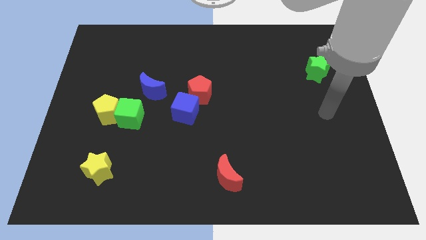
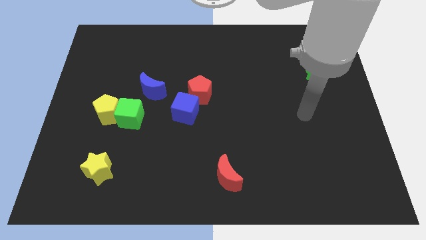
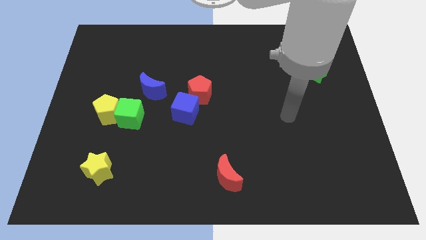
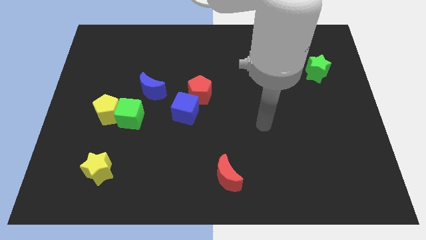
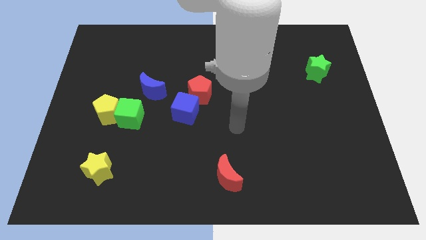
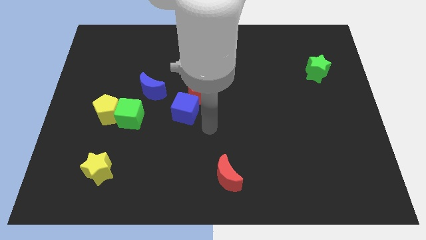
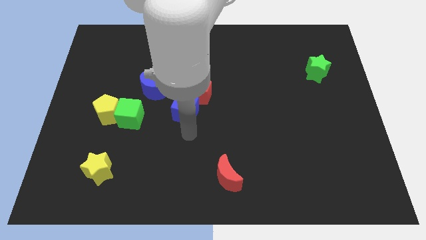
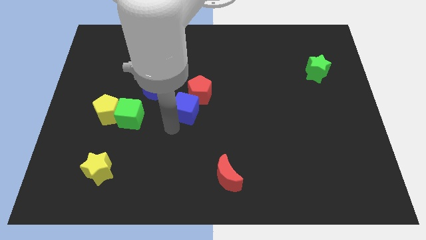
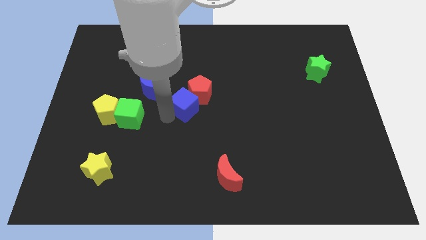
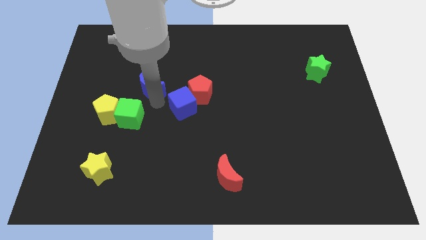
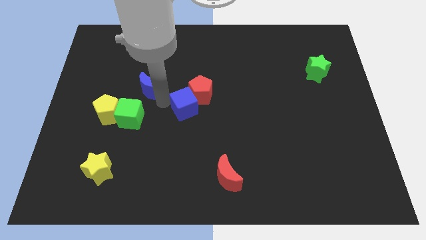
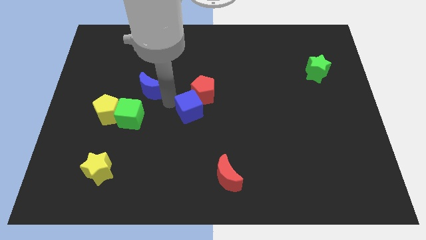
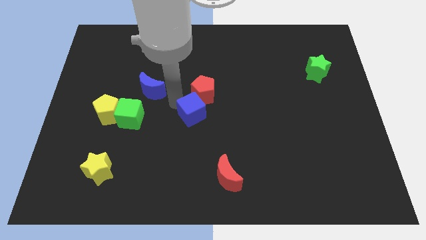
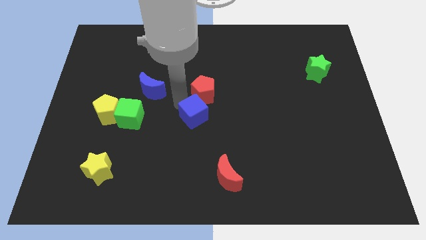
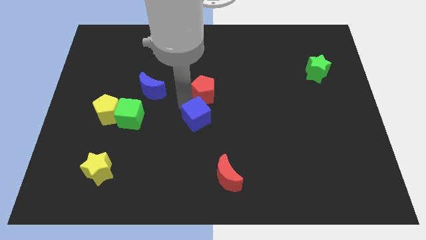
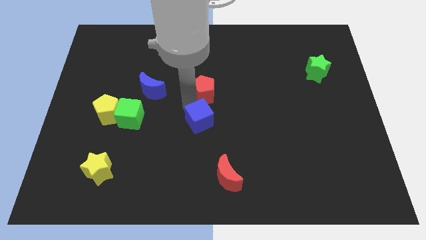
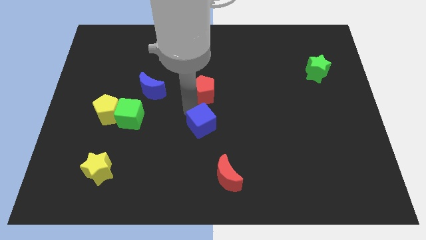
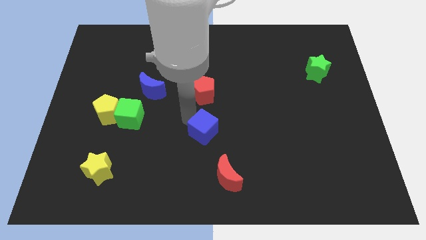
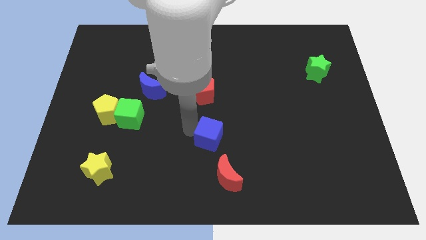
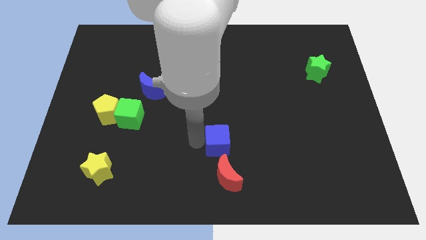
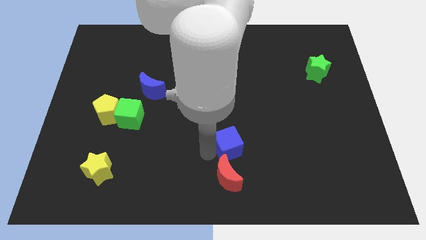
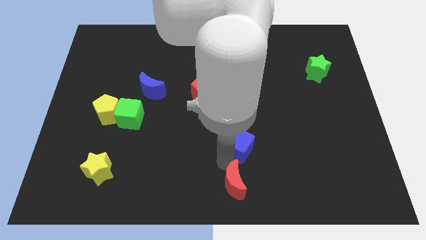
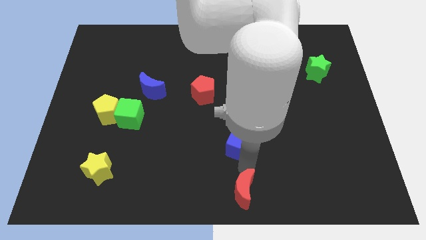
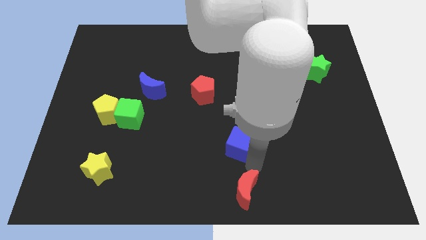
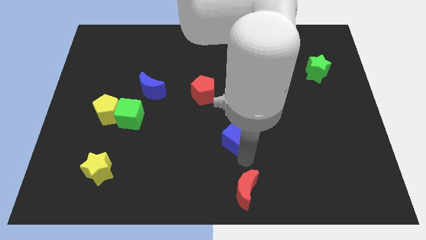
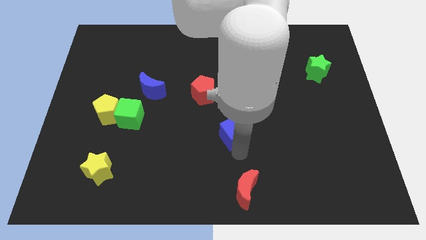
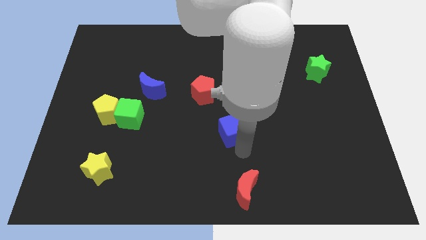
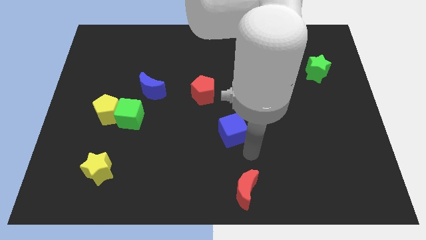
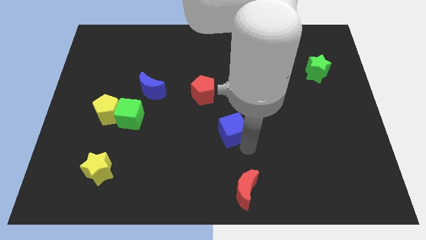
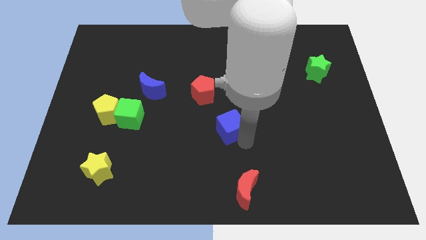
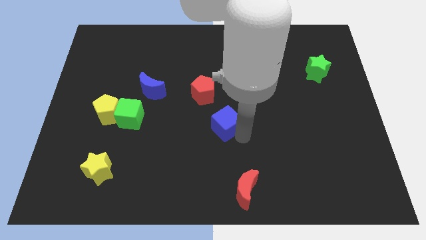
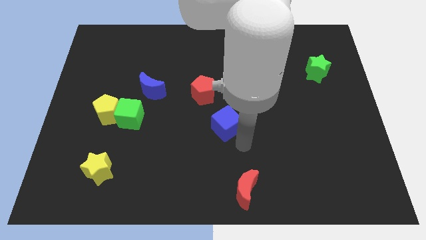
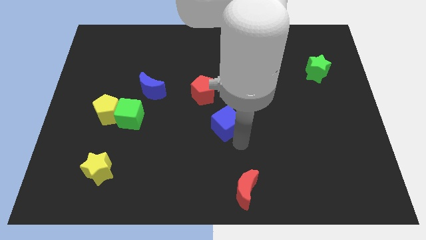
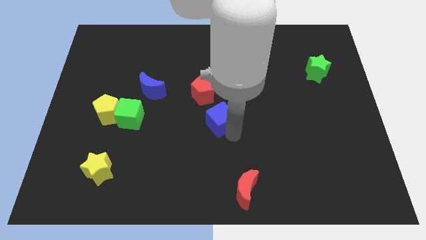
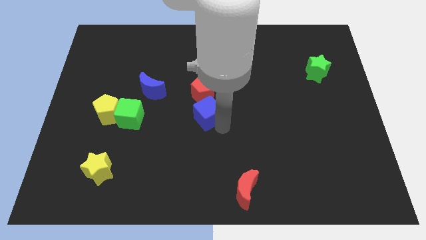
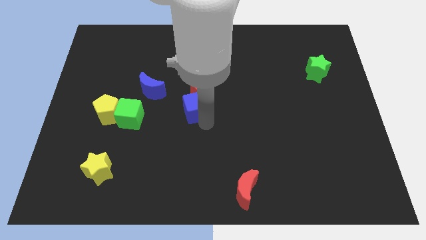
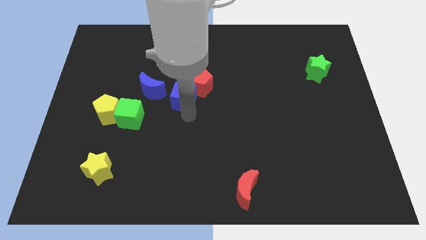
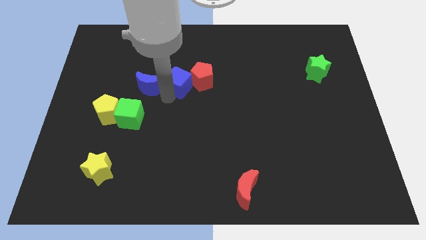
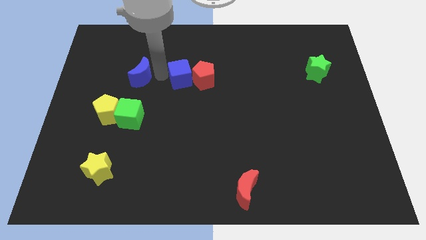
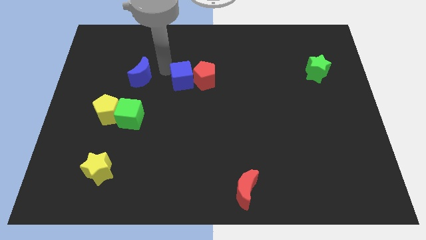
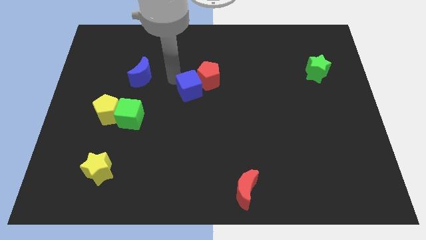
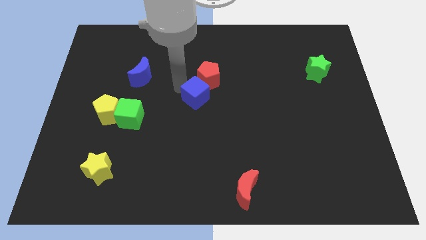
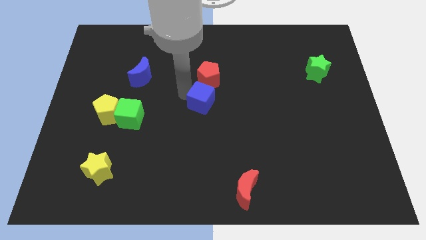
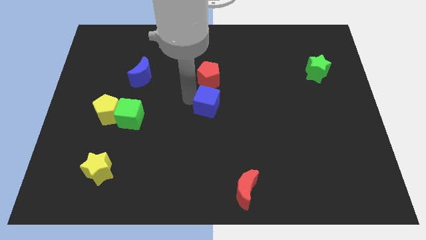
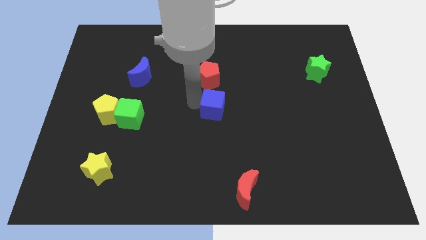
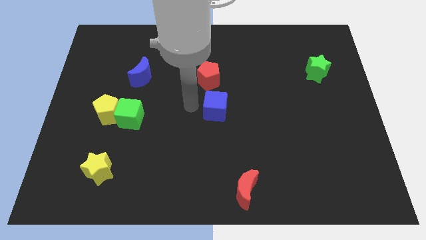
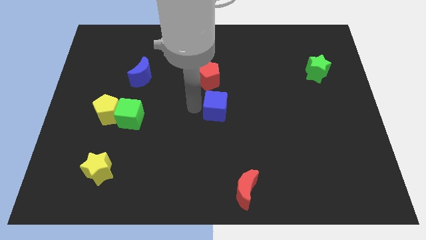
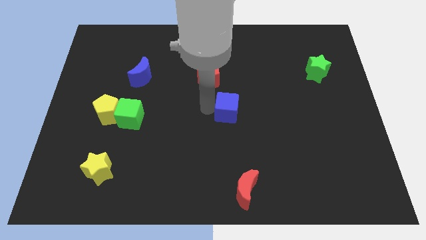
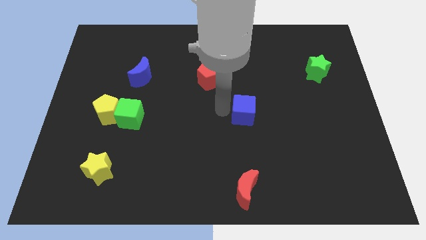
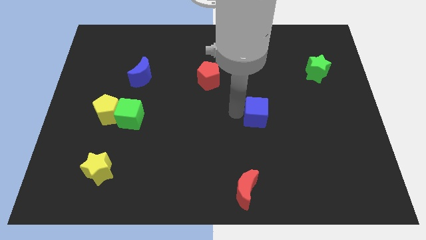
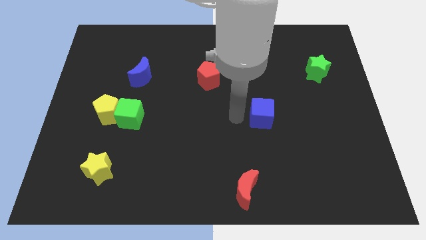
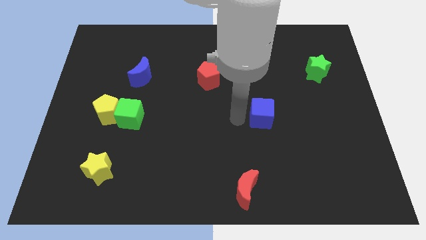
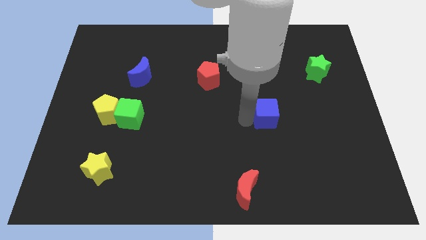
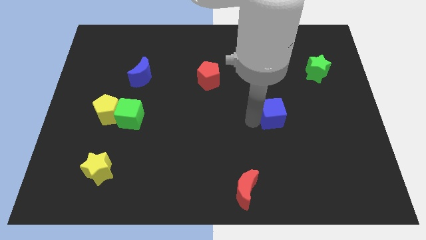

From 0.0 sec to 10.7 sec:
push the blue cube right

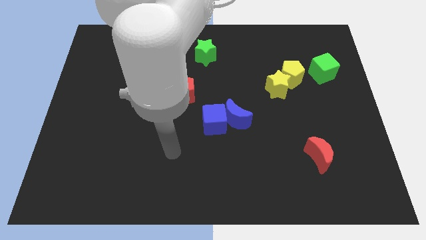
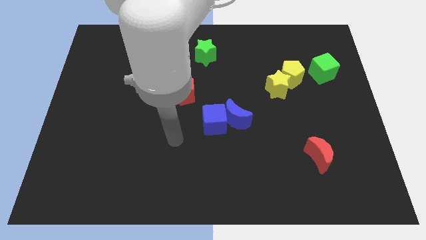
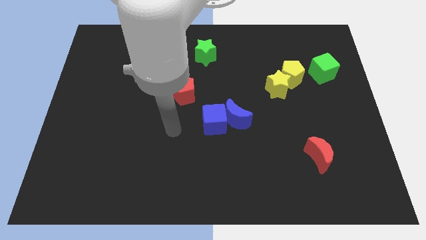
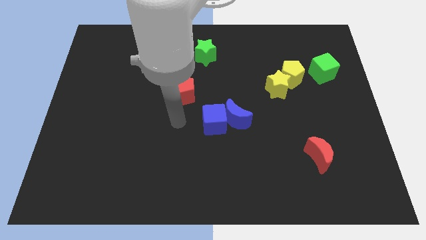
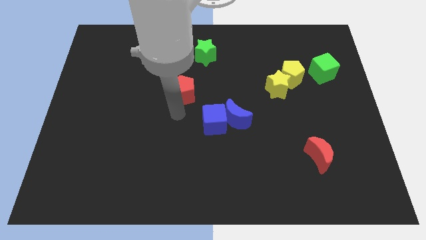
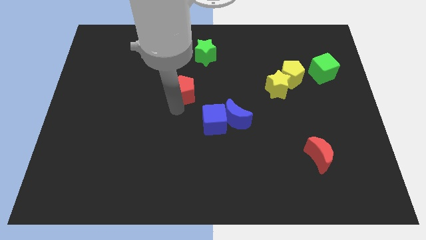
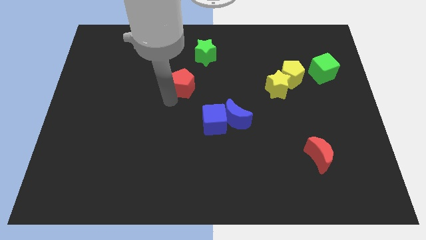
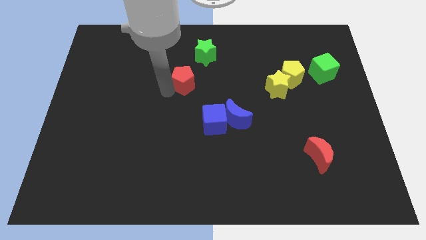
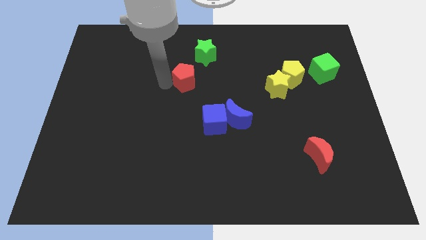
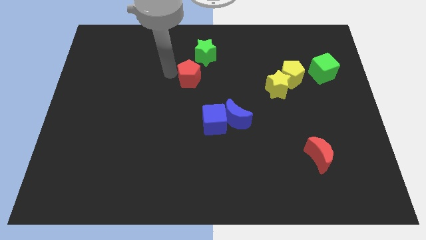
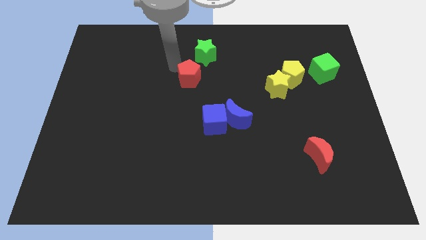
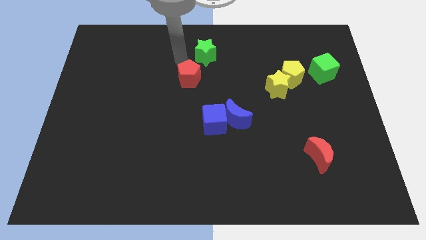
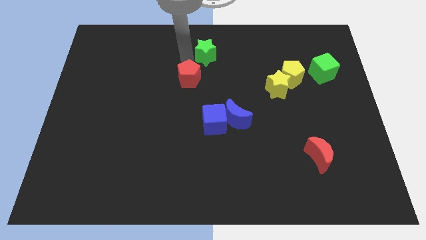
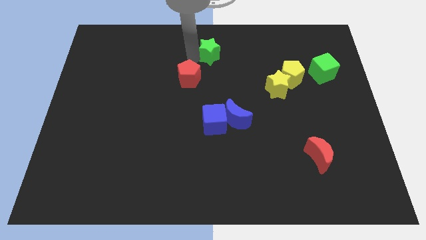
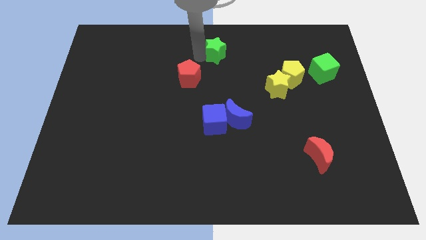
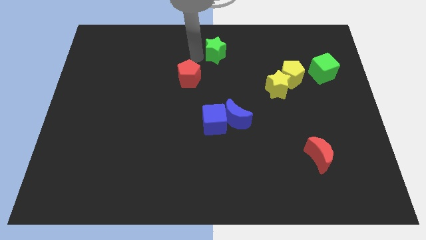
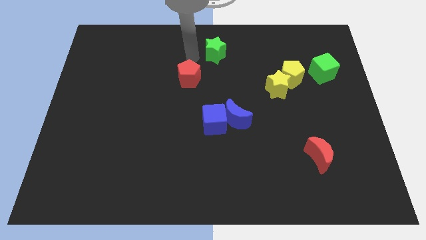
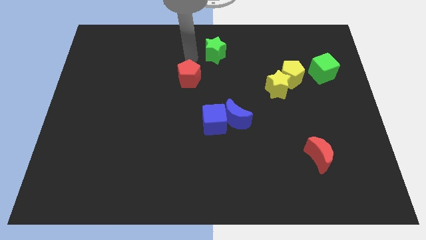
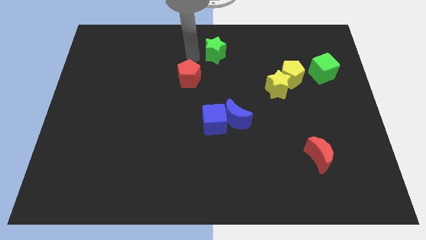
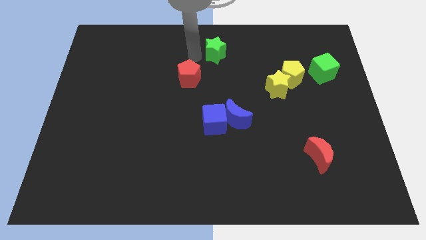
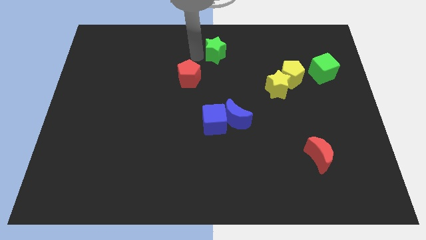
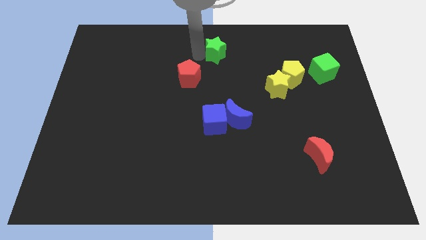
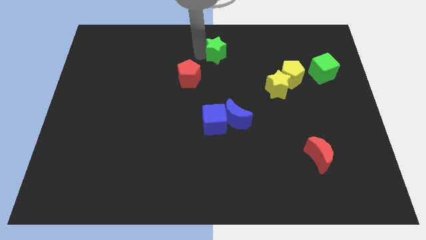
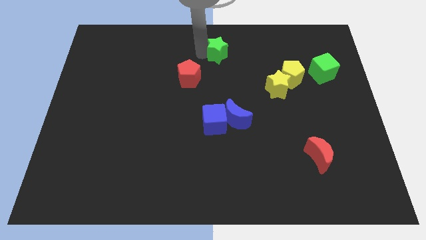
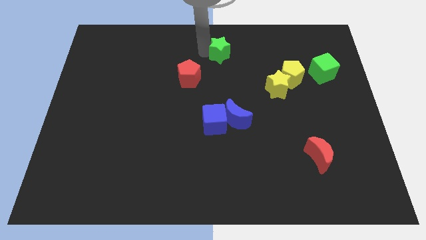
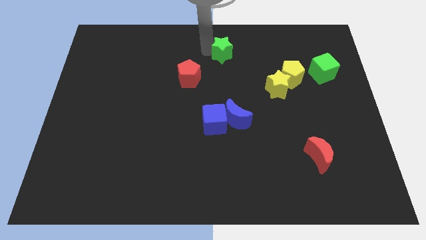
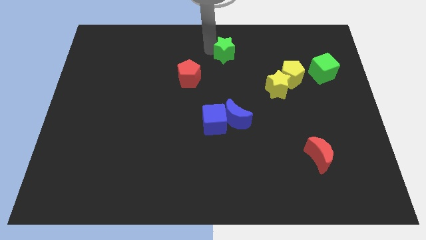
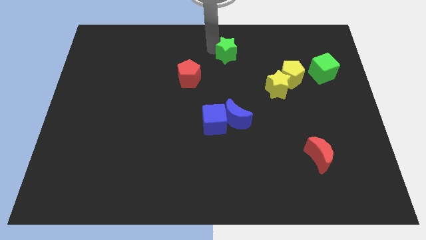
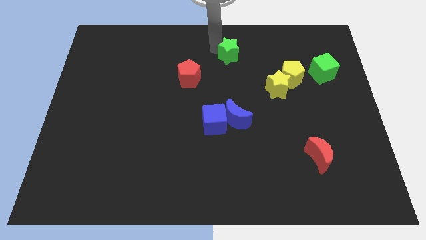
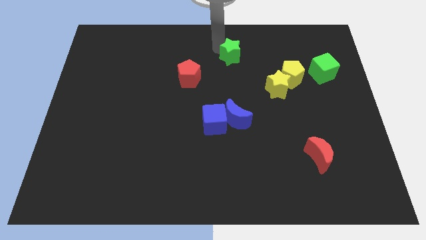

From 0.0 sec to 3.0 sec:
slightly push the green star to the right
